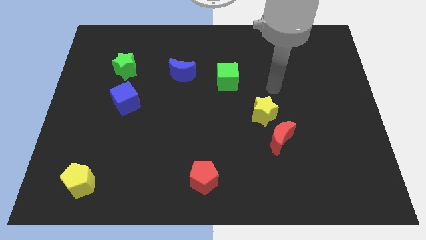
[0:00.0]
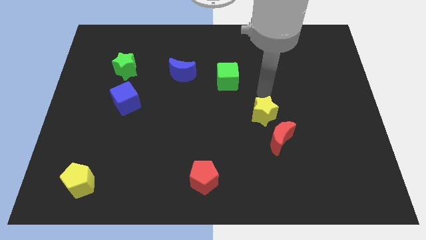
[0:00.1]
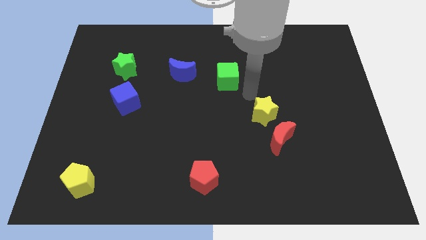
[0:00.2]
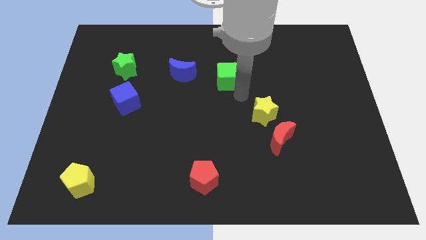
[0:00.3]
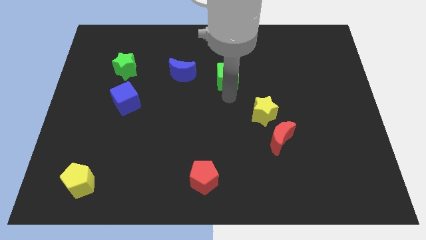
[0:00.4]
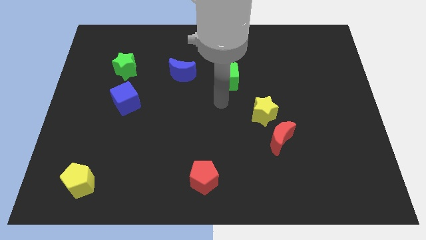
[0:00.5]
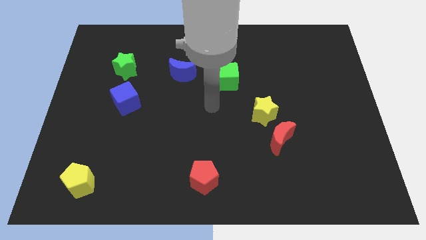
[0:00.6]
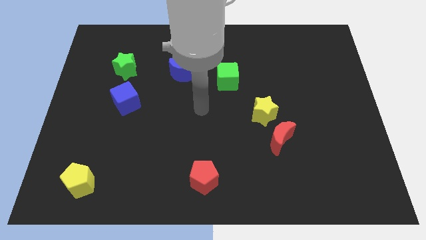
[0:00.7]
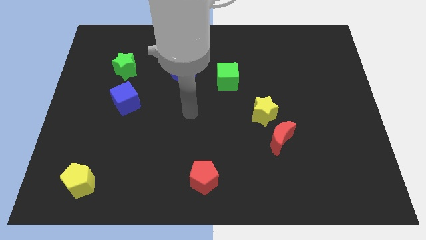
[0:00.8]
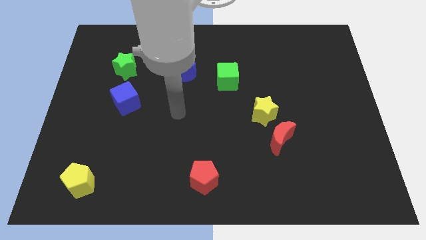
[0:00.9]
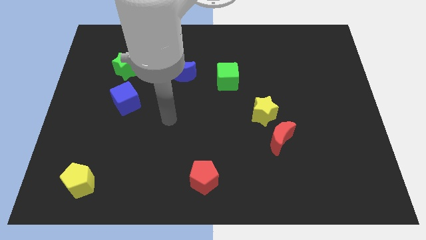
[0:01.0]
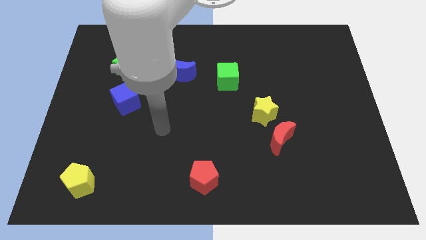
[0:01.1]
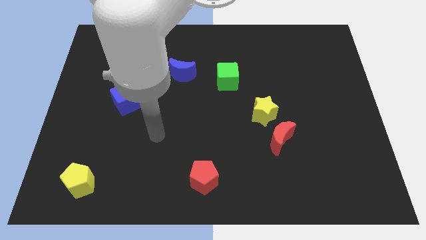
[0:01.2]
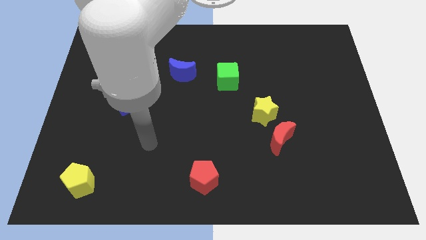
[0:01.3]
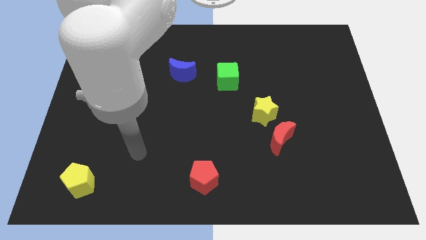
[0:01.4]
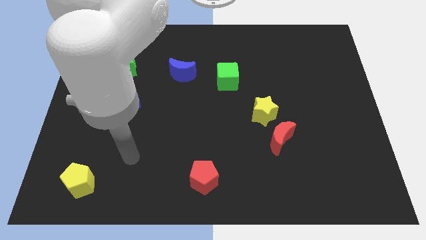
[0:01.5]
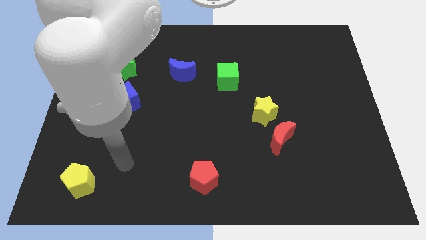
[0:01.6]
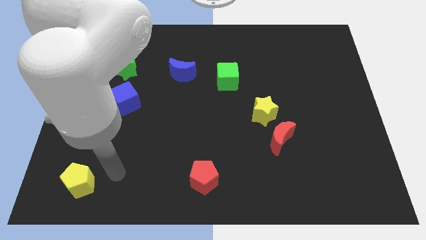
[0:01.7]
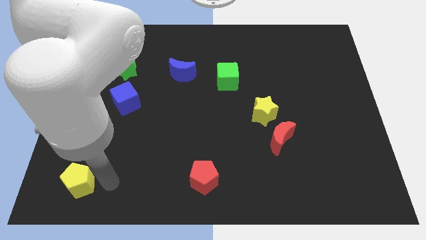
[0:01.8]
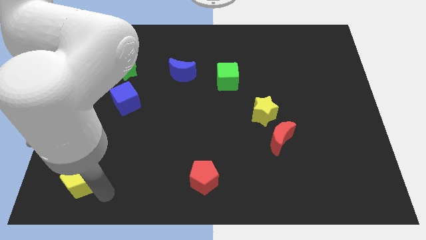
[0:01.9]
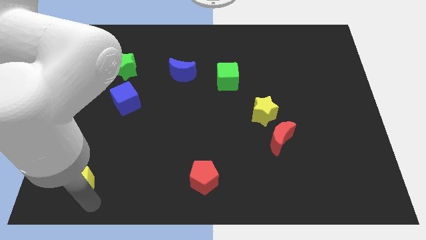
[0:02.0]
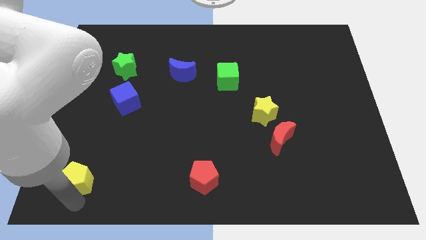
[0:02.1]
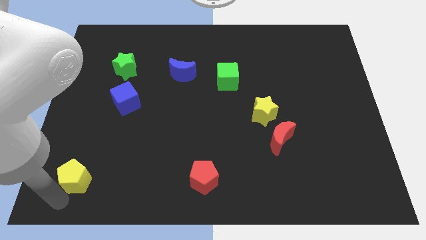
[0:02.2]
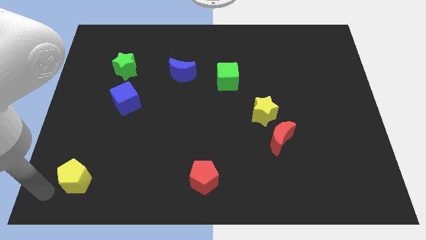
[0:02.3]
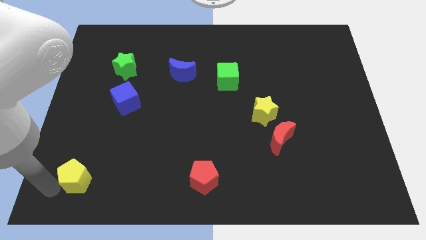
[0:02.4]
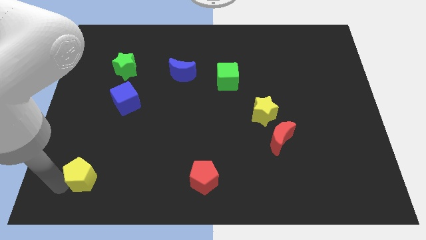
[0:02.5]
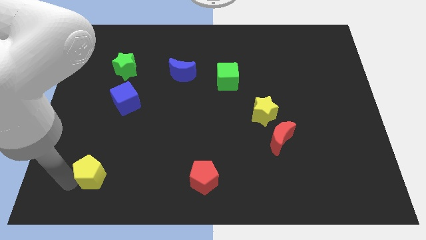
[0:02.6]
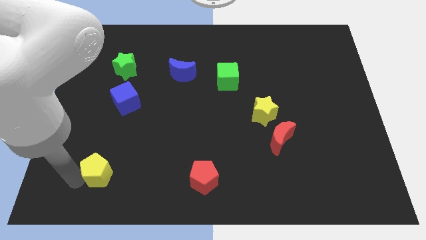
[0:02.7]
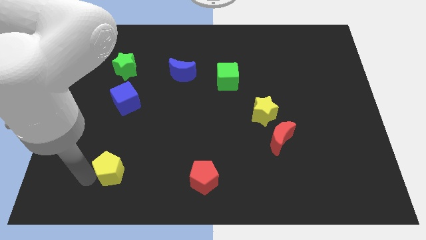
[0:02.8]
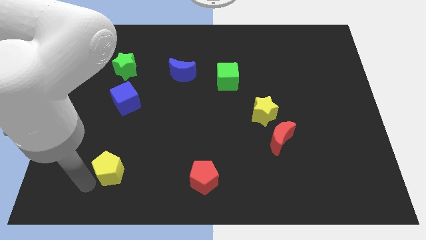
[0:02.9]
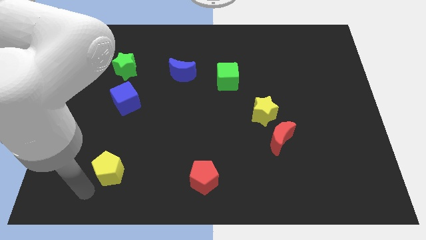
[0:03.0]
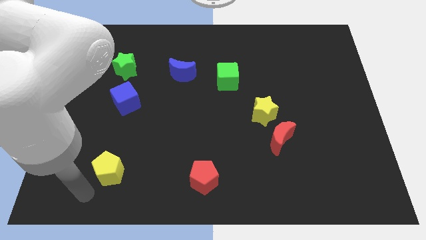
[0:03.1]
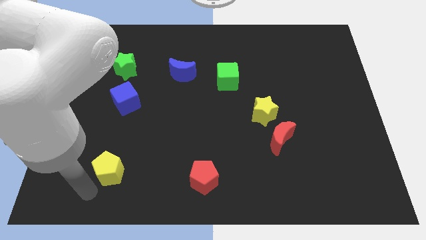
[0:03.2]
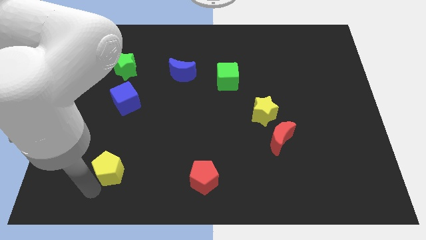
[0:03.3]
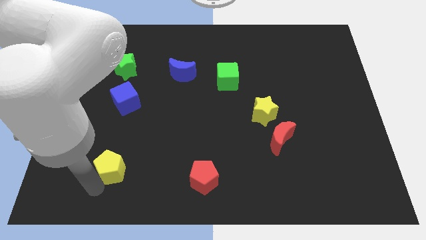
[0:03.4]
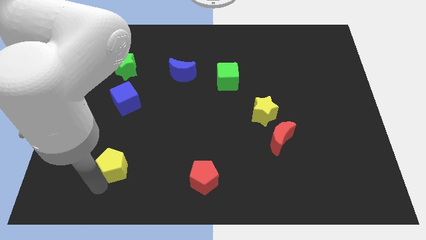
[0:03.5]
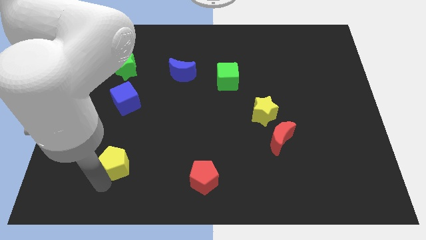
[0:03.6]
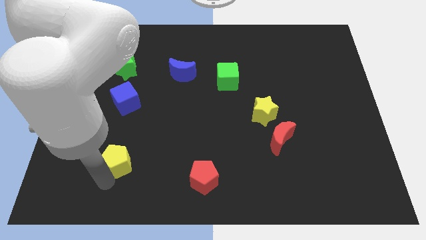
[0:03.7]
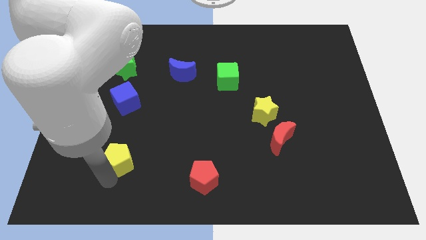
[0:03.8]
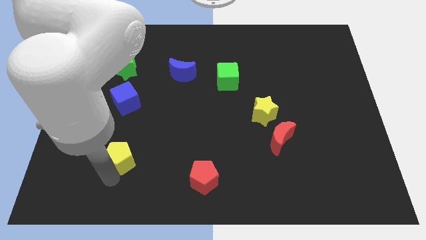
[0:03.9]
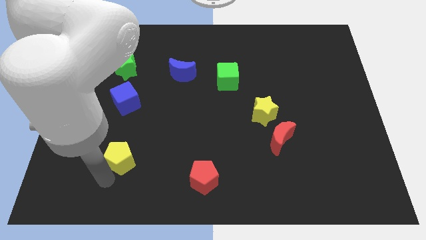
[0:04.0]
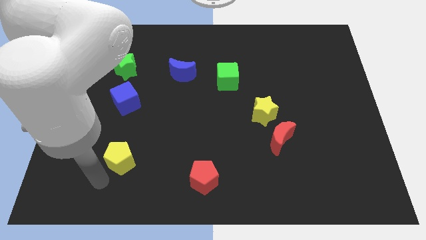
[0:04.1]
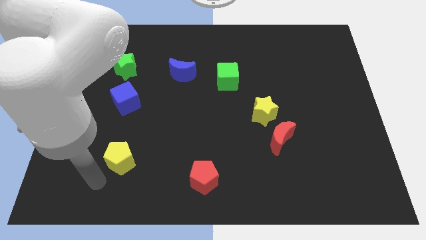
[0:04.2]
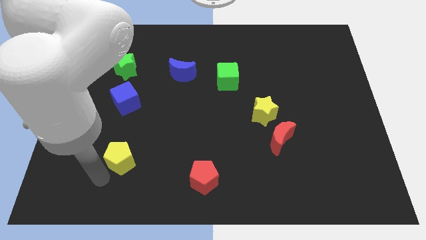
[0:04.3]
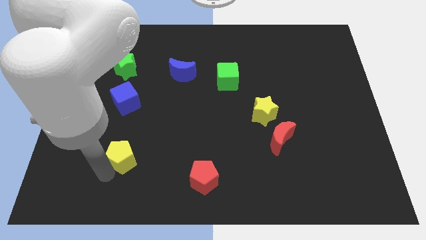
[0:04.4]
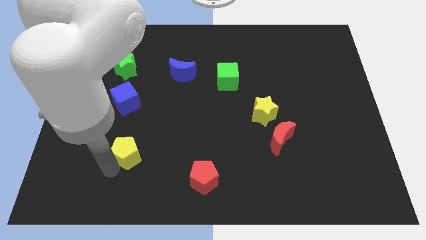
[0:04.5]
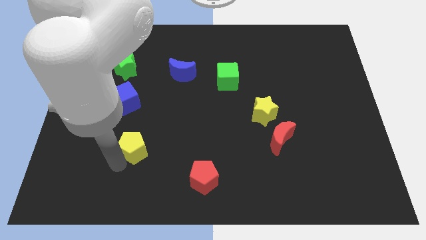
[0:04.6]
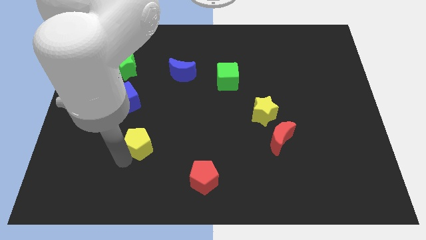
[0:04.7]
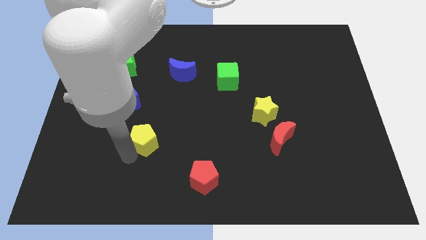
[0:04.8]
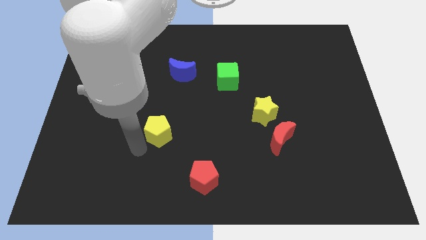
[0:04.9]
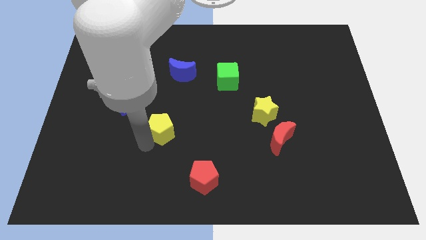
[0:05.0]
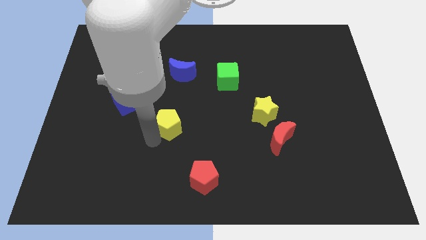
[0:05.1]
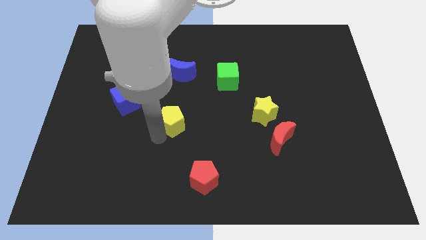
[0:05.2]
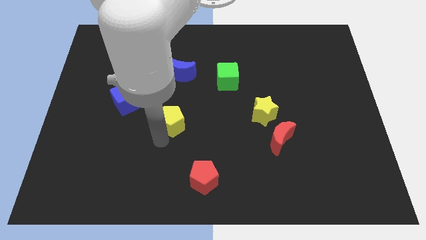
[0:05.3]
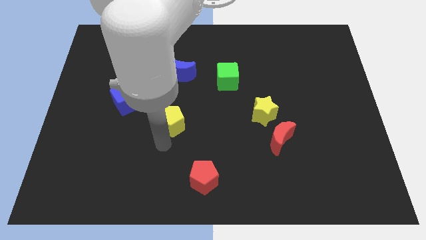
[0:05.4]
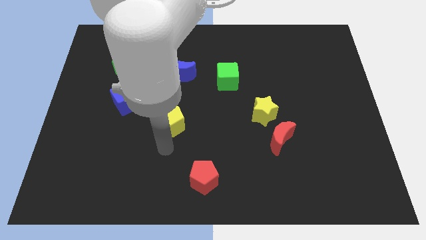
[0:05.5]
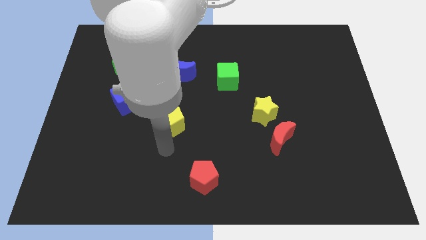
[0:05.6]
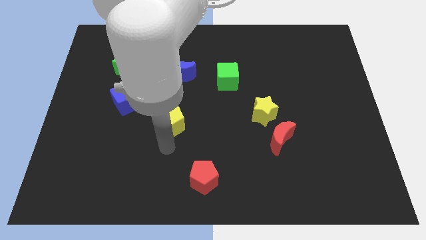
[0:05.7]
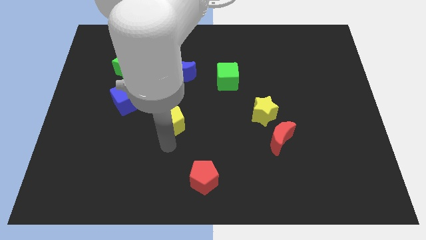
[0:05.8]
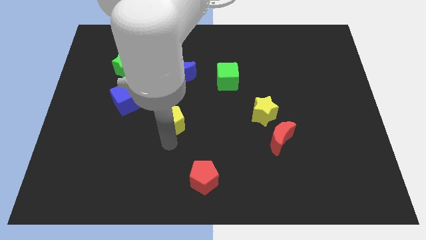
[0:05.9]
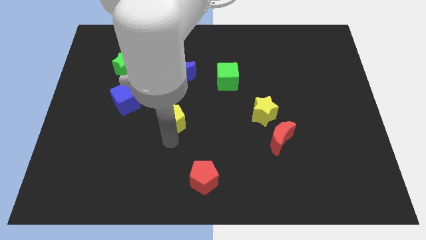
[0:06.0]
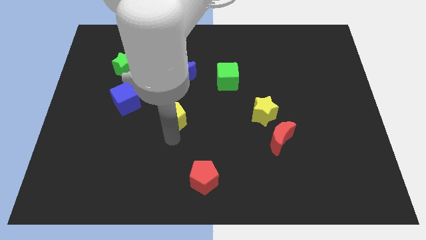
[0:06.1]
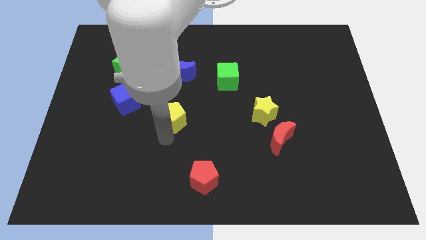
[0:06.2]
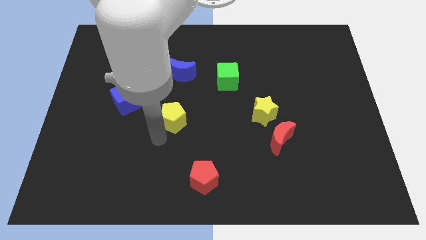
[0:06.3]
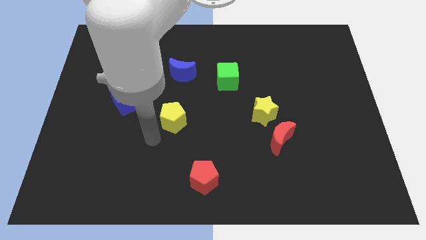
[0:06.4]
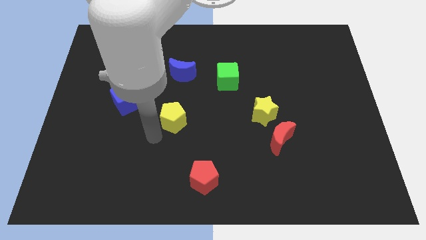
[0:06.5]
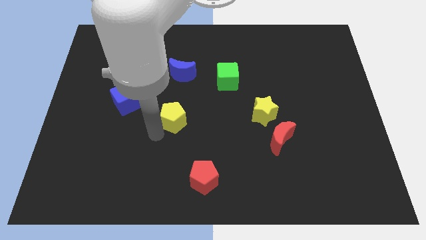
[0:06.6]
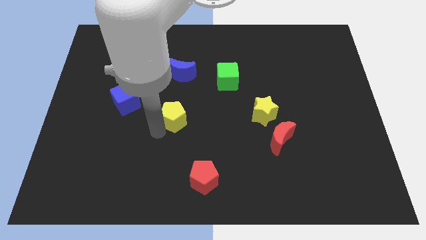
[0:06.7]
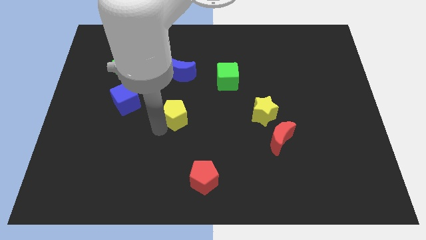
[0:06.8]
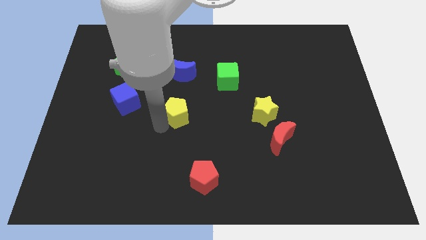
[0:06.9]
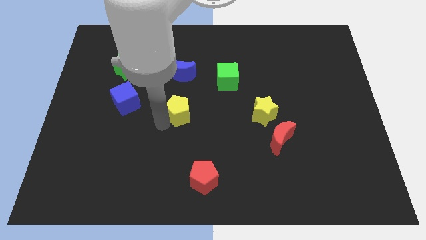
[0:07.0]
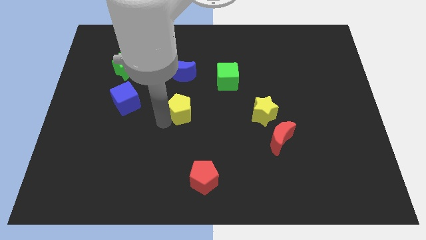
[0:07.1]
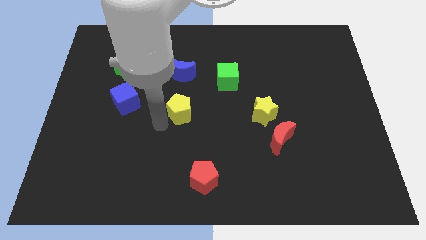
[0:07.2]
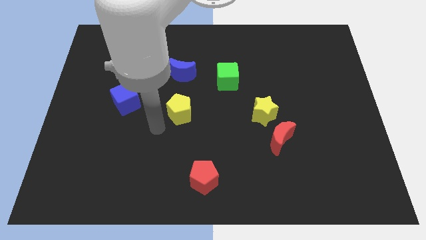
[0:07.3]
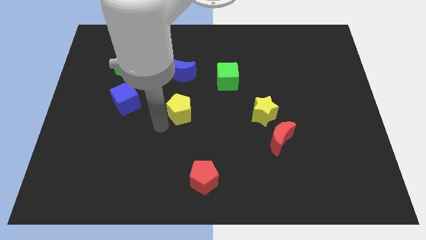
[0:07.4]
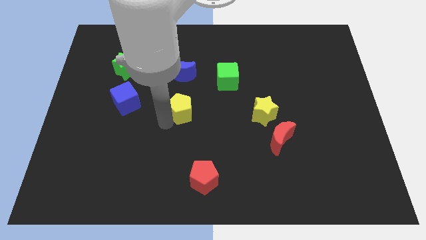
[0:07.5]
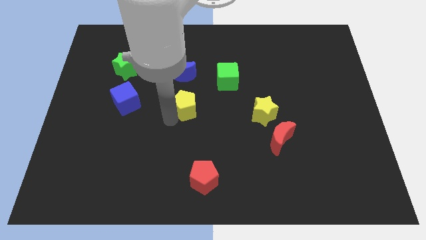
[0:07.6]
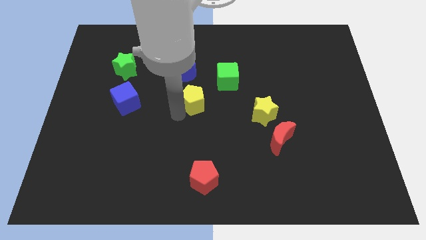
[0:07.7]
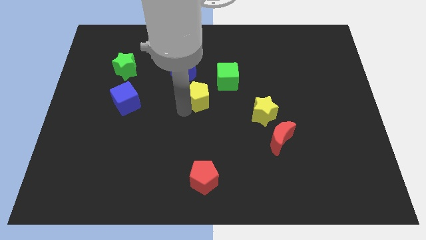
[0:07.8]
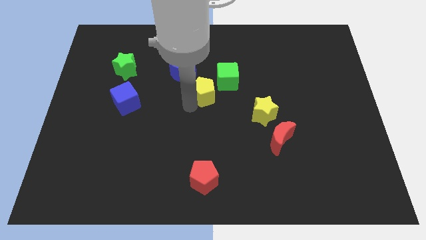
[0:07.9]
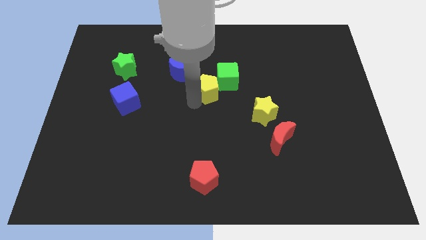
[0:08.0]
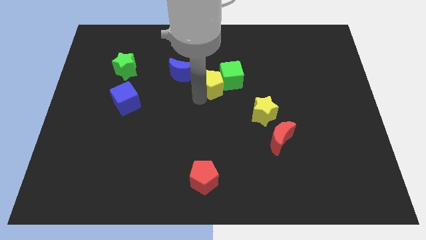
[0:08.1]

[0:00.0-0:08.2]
move the yellow pentagon towards the green cube
